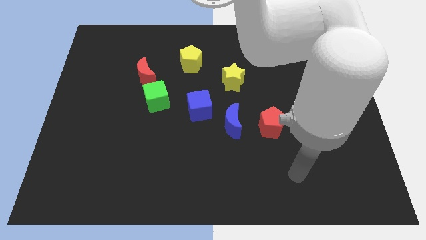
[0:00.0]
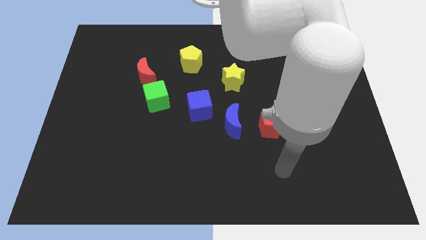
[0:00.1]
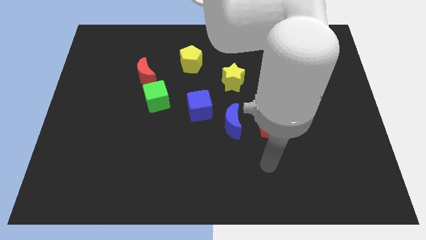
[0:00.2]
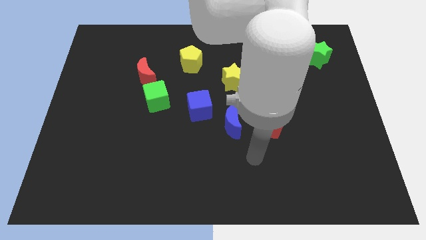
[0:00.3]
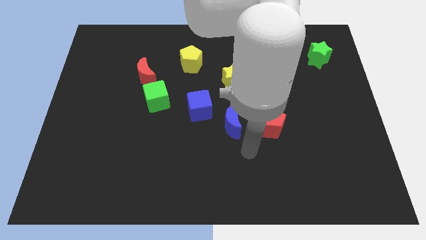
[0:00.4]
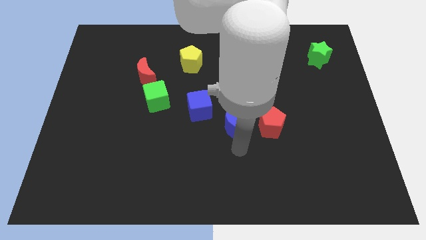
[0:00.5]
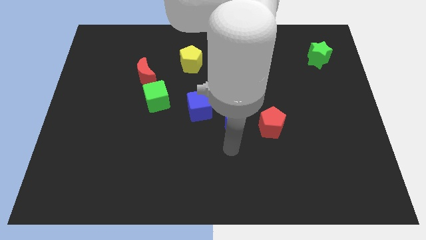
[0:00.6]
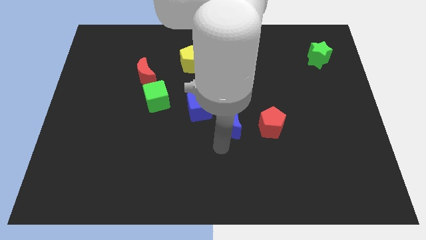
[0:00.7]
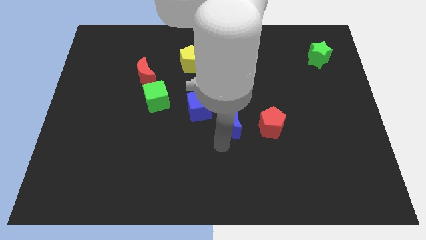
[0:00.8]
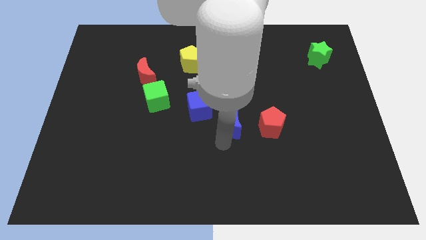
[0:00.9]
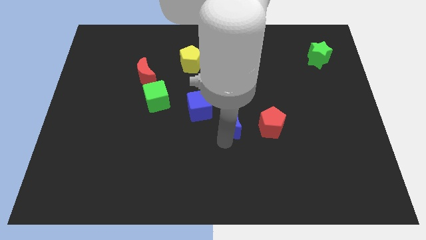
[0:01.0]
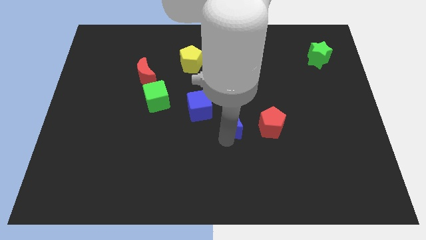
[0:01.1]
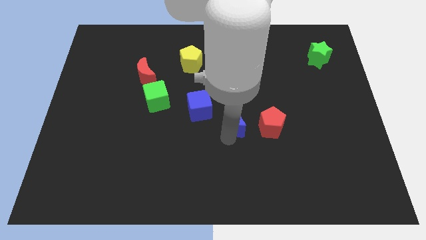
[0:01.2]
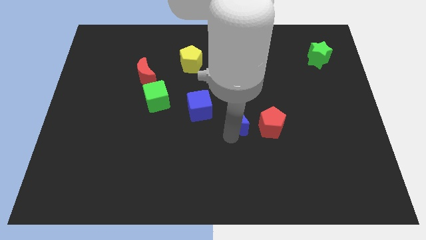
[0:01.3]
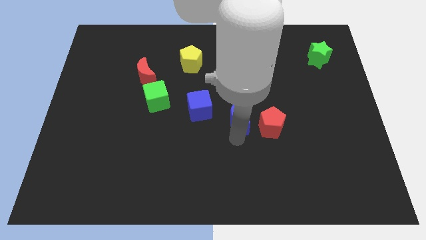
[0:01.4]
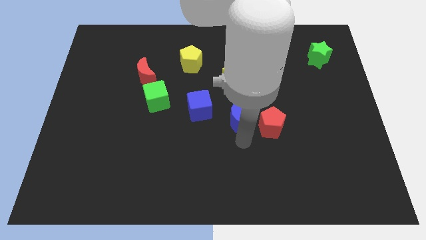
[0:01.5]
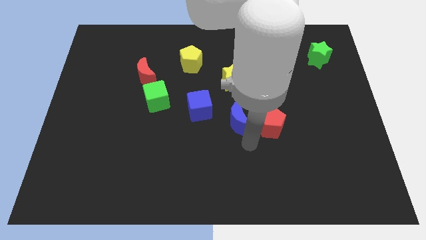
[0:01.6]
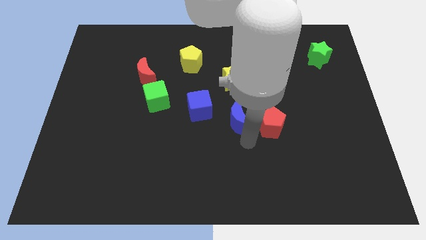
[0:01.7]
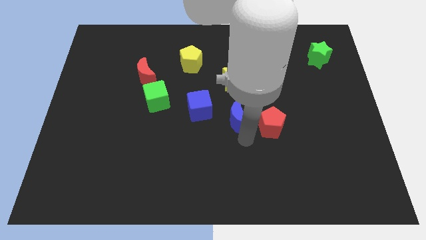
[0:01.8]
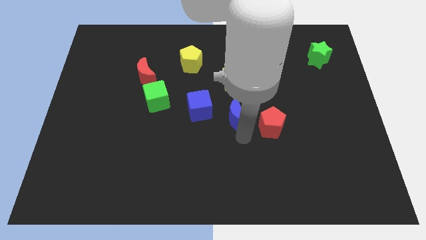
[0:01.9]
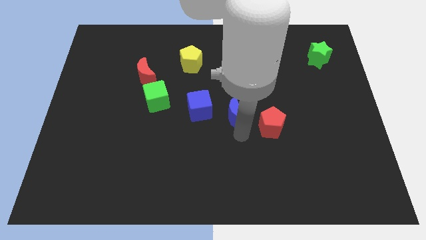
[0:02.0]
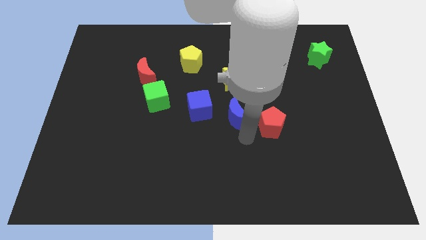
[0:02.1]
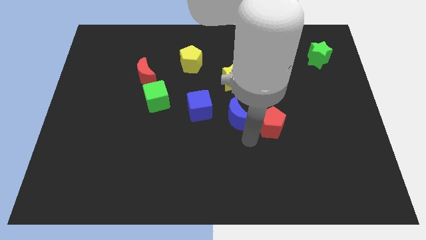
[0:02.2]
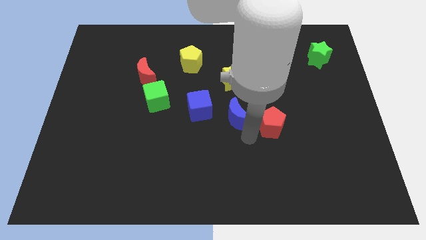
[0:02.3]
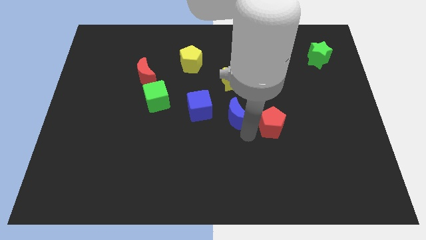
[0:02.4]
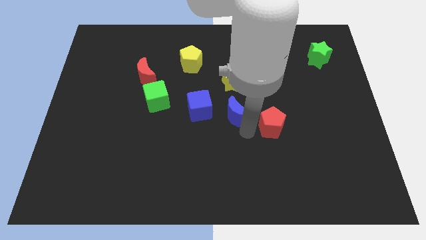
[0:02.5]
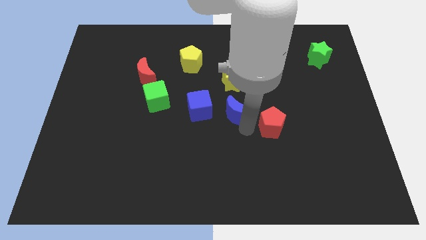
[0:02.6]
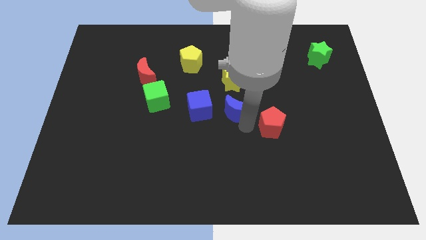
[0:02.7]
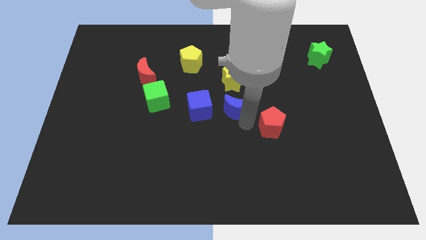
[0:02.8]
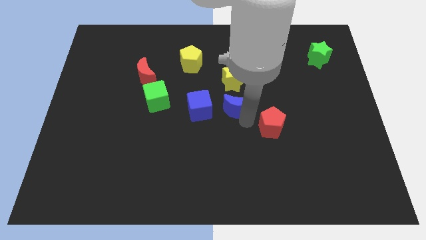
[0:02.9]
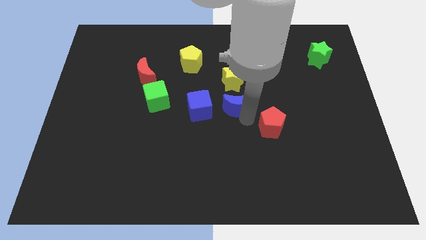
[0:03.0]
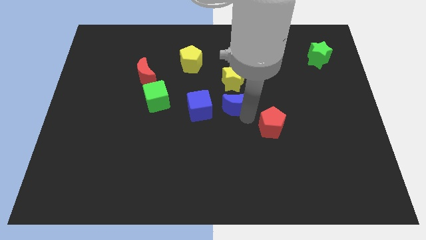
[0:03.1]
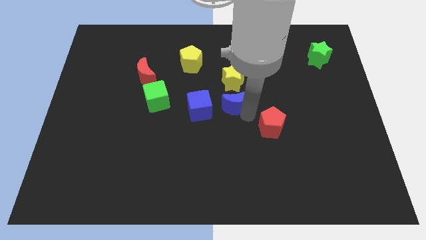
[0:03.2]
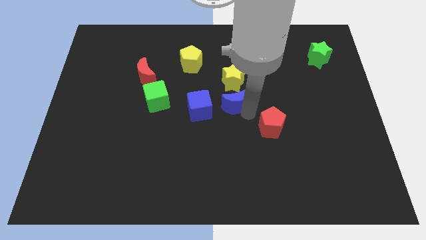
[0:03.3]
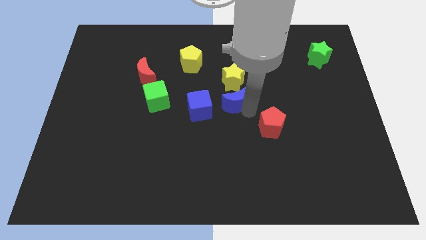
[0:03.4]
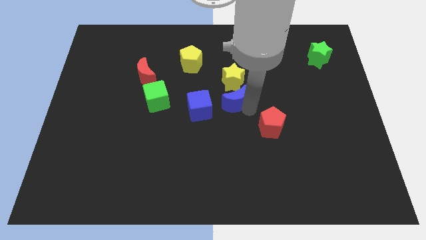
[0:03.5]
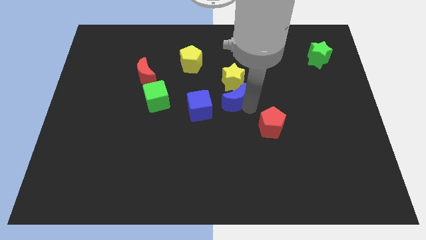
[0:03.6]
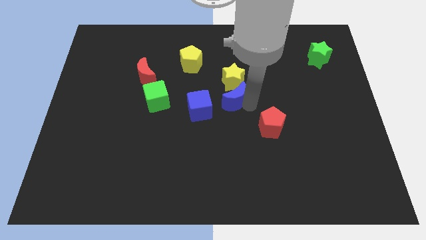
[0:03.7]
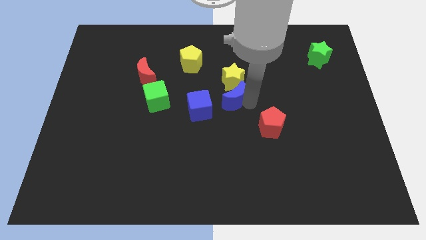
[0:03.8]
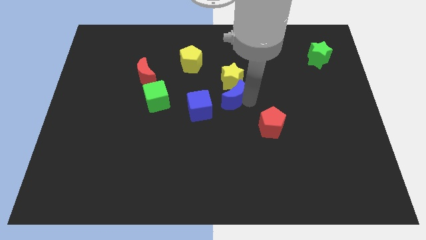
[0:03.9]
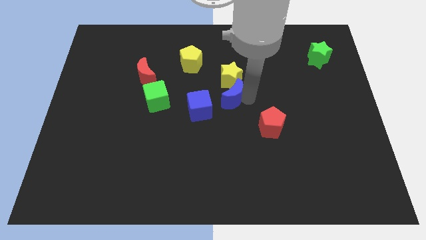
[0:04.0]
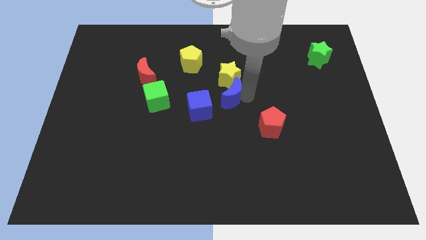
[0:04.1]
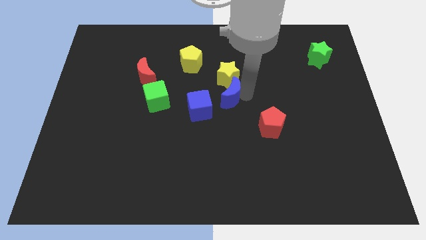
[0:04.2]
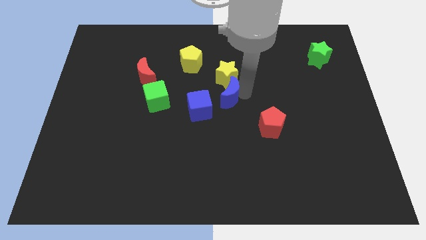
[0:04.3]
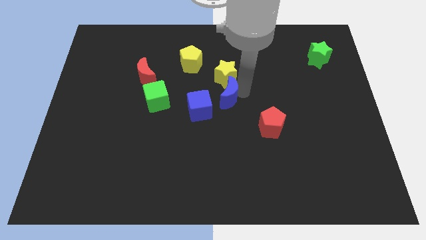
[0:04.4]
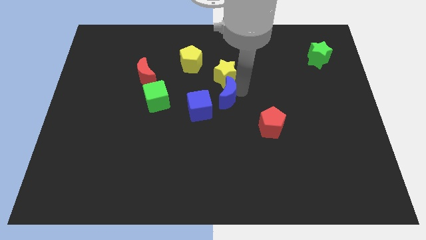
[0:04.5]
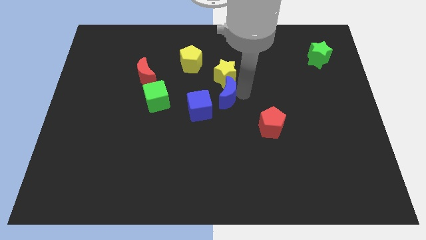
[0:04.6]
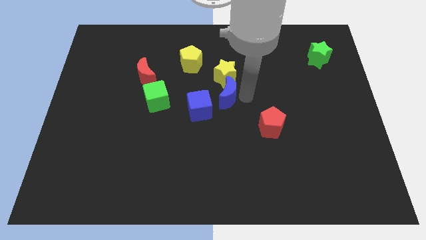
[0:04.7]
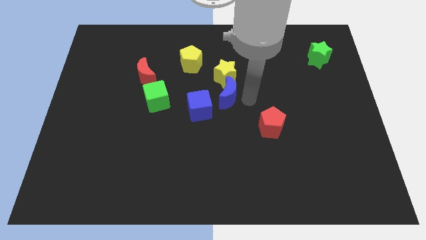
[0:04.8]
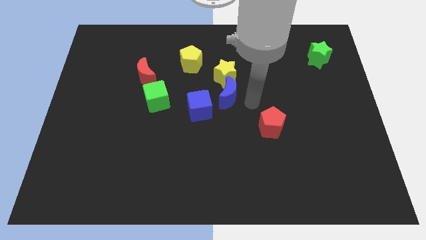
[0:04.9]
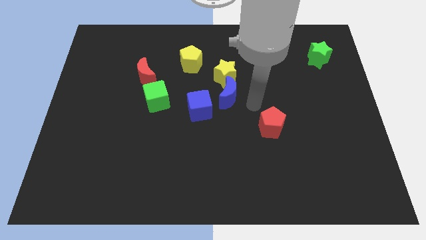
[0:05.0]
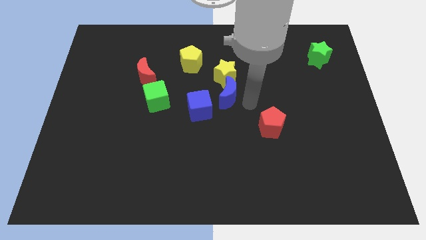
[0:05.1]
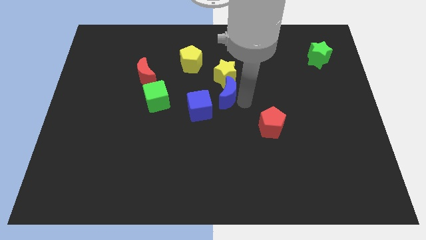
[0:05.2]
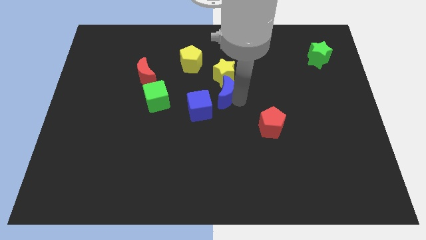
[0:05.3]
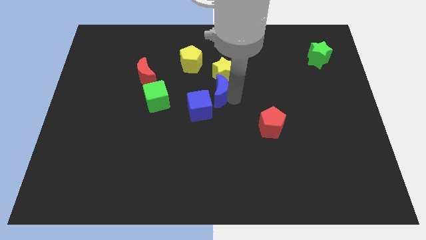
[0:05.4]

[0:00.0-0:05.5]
move the blue moon diagonally up and left slightly

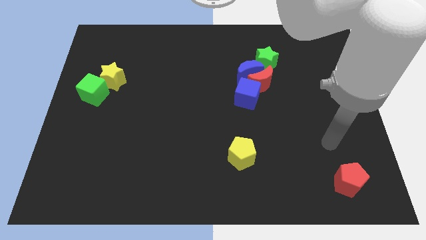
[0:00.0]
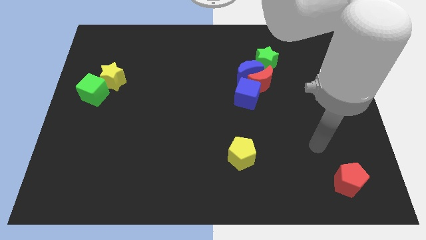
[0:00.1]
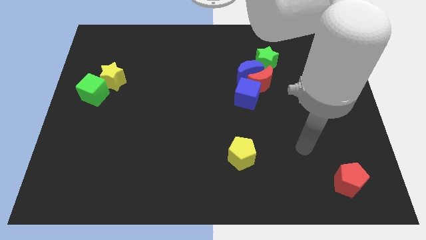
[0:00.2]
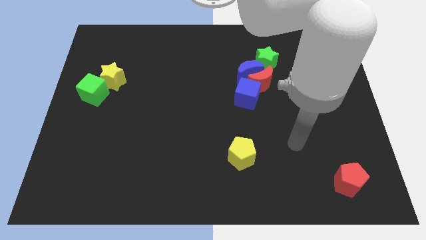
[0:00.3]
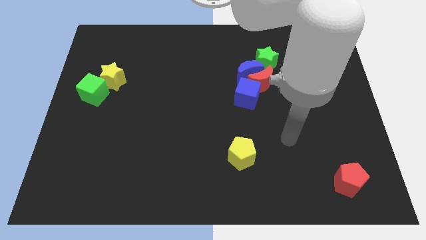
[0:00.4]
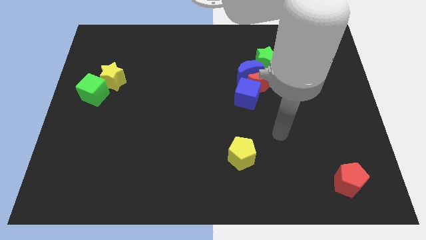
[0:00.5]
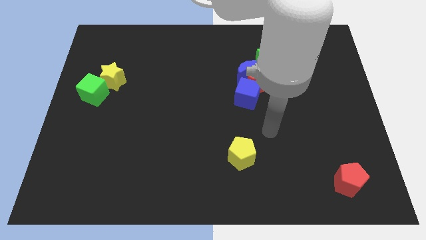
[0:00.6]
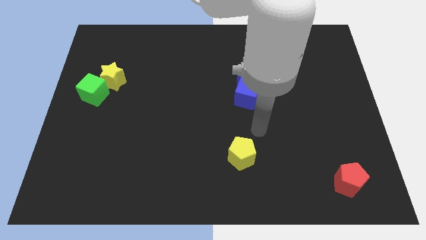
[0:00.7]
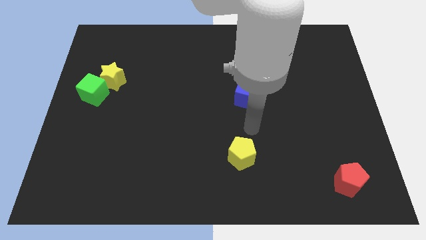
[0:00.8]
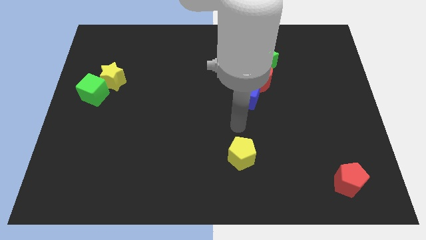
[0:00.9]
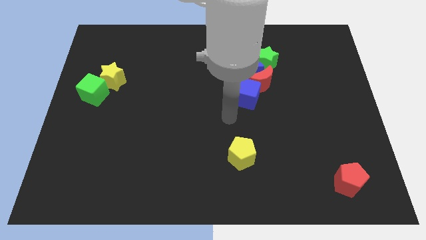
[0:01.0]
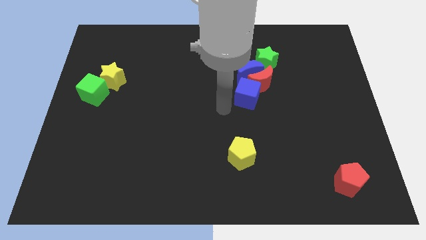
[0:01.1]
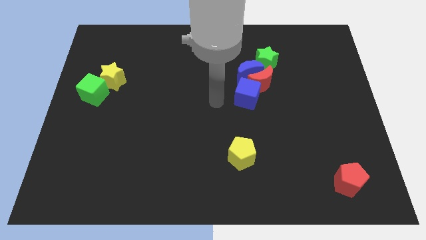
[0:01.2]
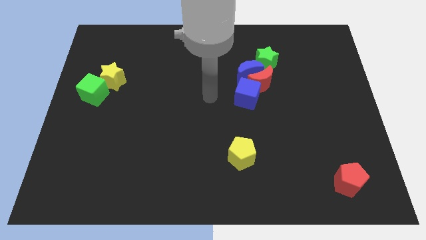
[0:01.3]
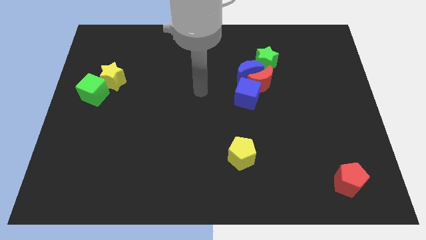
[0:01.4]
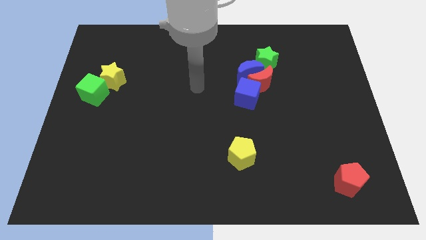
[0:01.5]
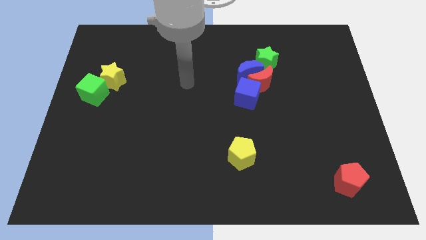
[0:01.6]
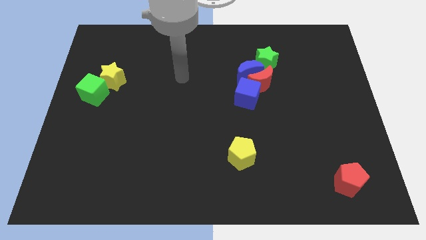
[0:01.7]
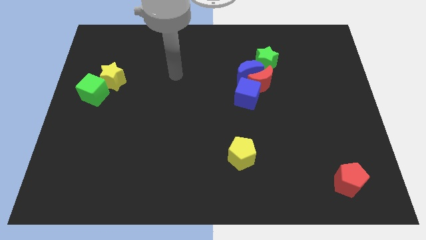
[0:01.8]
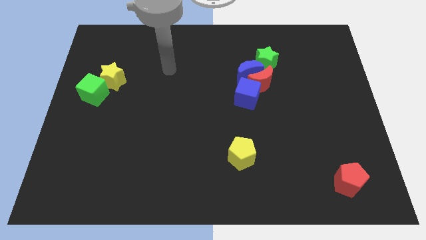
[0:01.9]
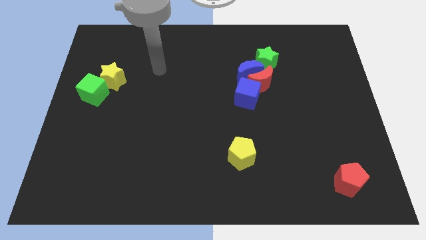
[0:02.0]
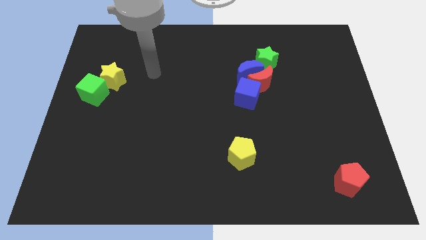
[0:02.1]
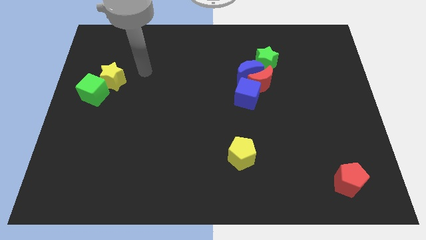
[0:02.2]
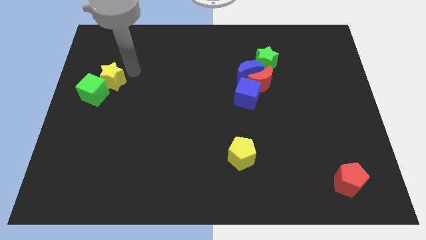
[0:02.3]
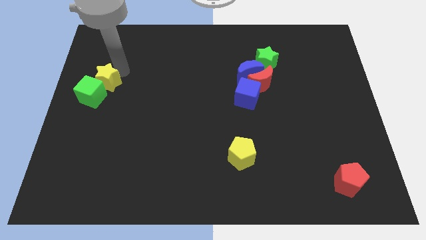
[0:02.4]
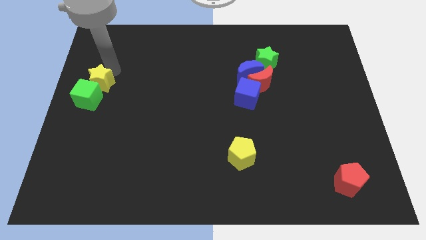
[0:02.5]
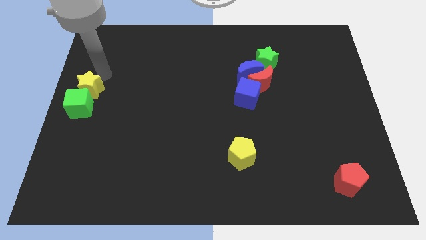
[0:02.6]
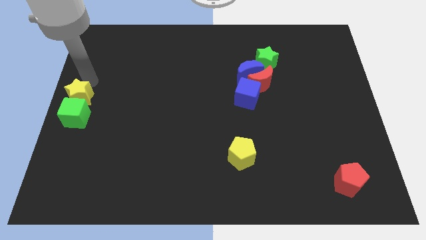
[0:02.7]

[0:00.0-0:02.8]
slightly slide the green cube down
